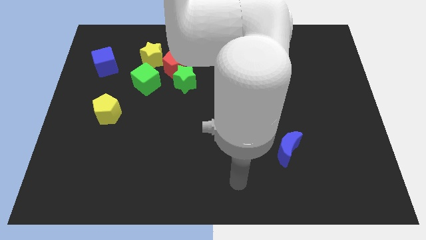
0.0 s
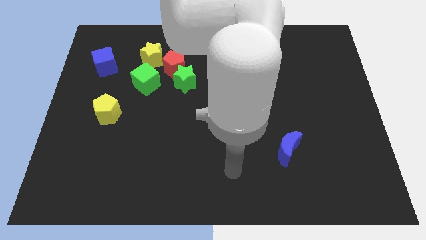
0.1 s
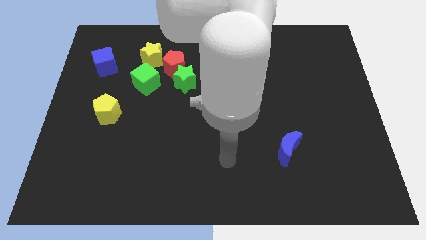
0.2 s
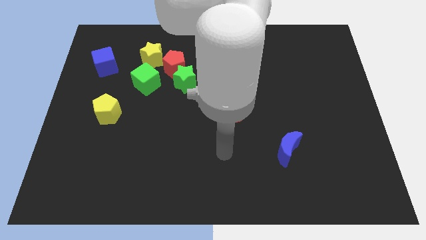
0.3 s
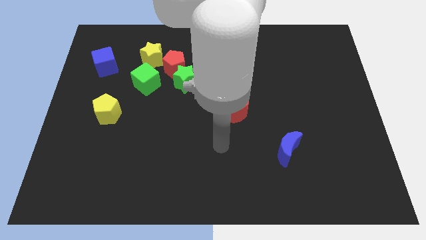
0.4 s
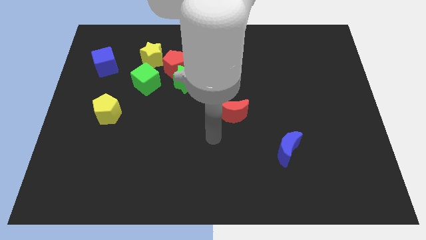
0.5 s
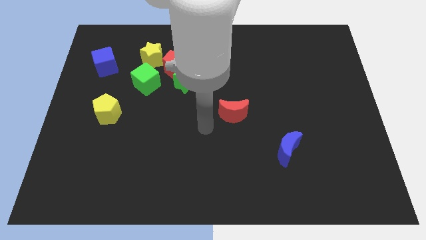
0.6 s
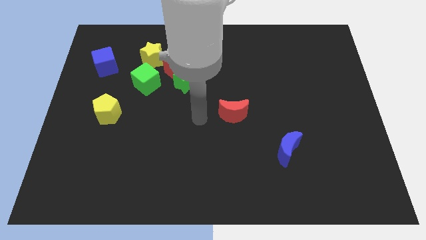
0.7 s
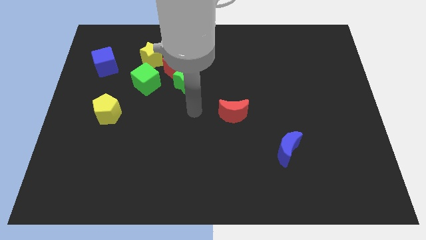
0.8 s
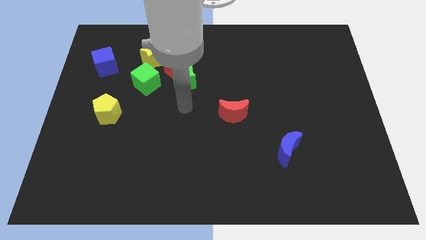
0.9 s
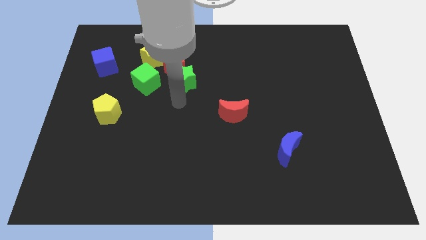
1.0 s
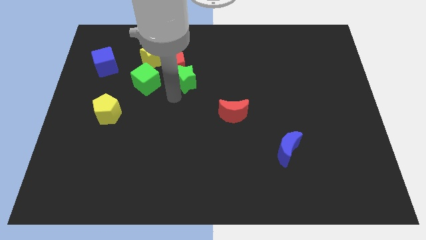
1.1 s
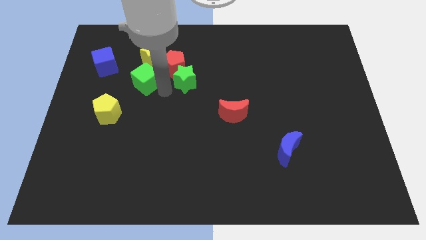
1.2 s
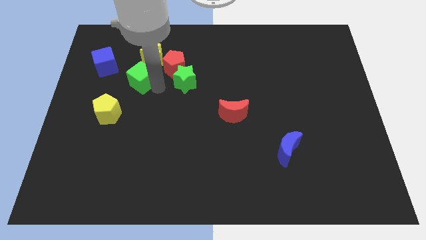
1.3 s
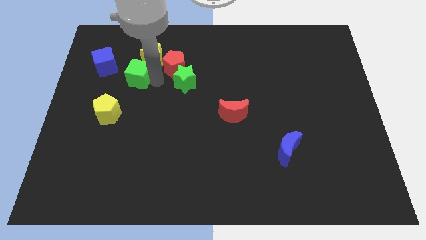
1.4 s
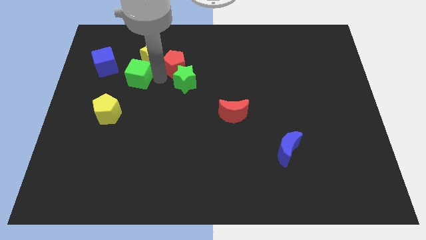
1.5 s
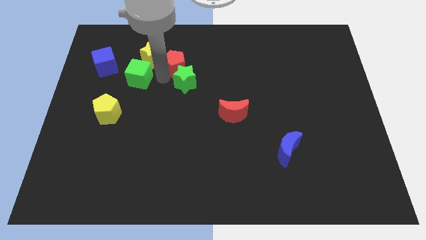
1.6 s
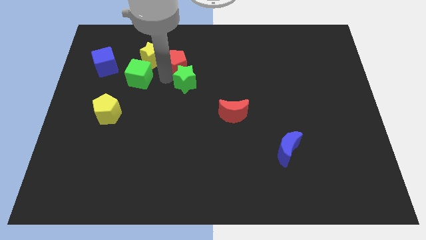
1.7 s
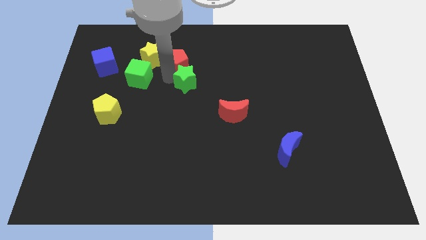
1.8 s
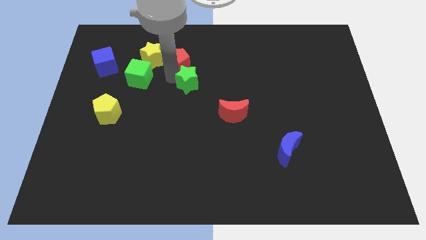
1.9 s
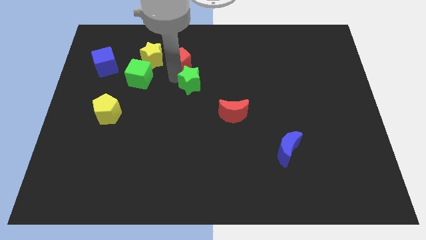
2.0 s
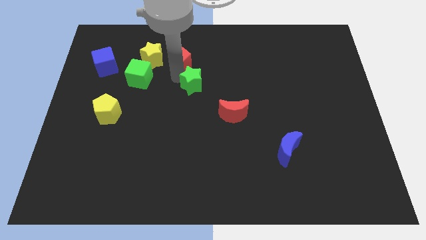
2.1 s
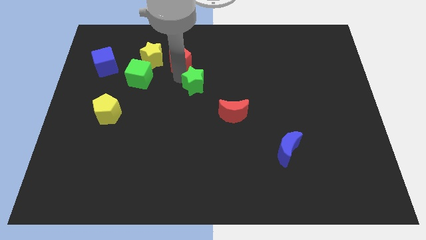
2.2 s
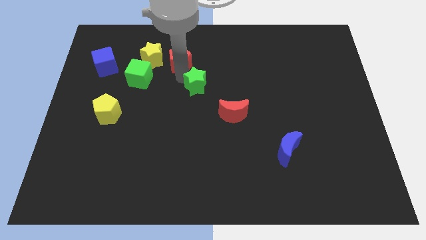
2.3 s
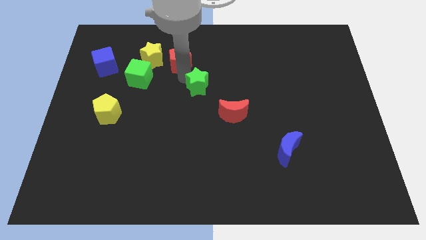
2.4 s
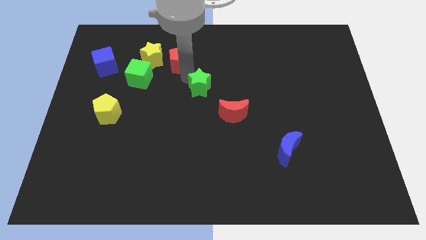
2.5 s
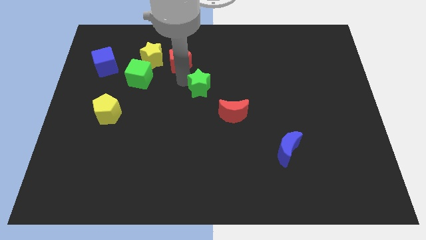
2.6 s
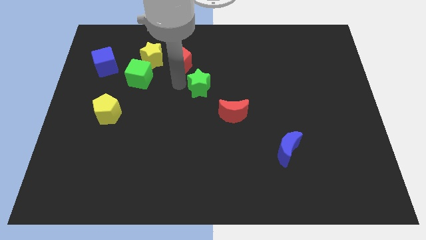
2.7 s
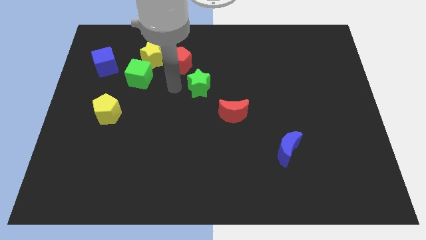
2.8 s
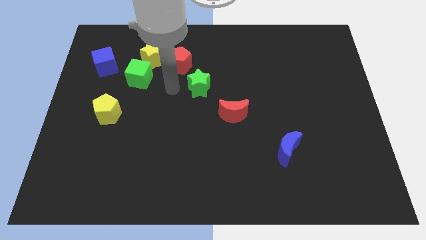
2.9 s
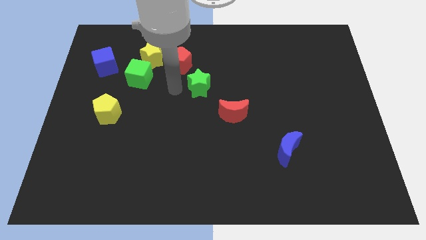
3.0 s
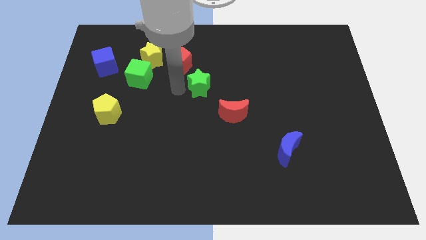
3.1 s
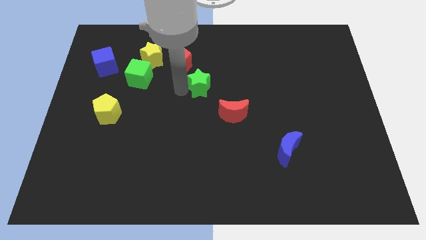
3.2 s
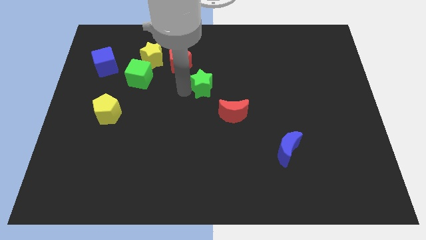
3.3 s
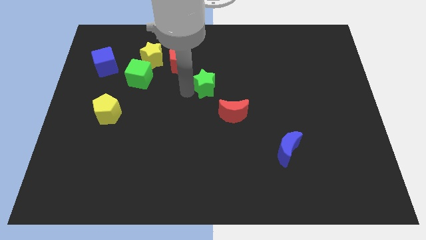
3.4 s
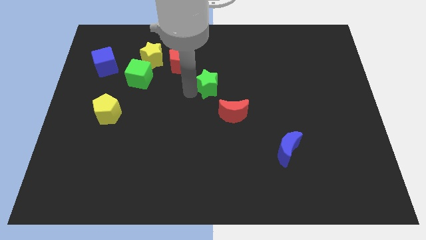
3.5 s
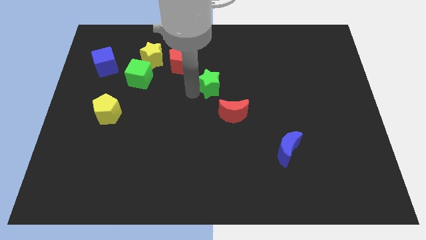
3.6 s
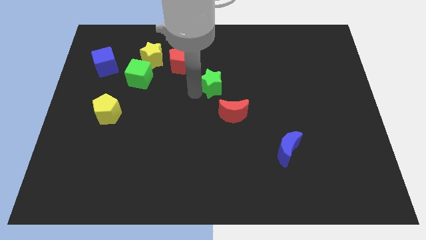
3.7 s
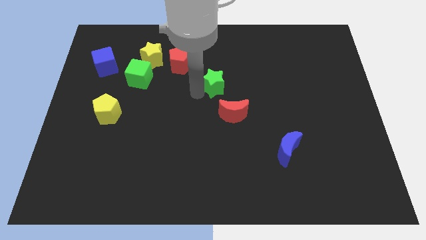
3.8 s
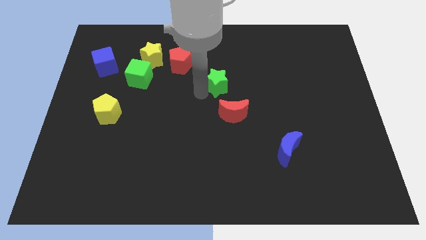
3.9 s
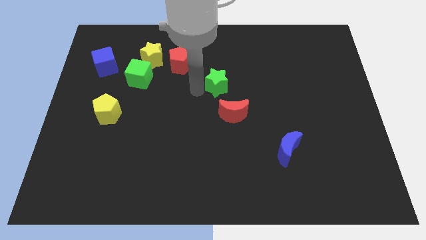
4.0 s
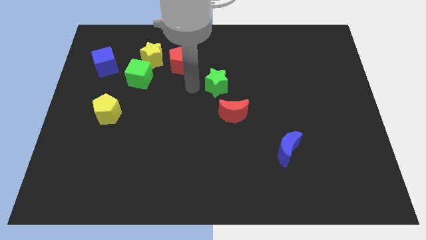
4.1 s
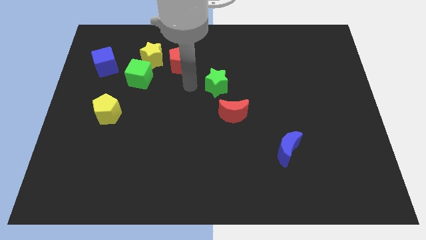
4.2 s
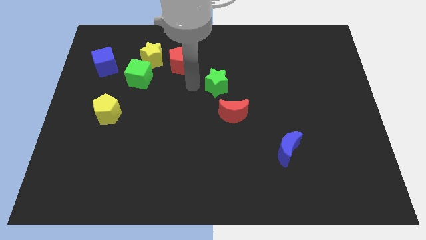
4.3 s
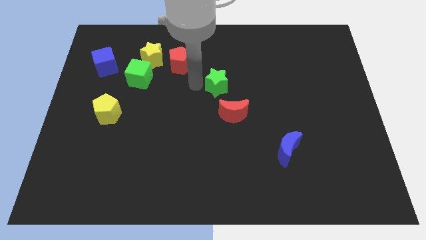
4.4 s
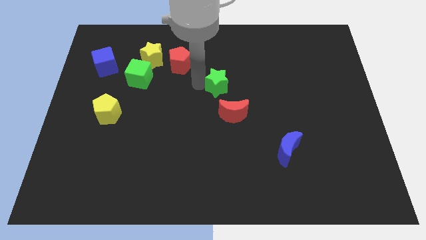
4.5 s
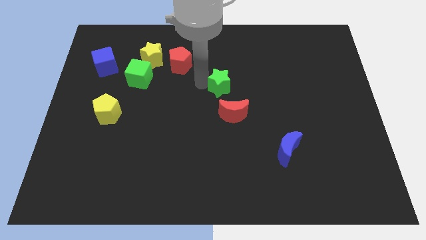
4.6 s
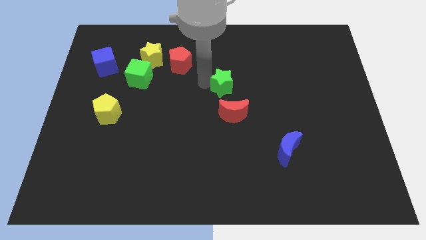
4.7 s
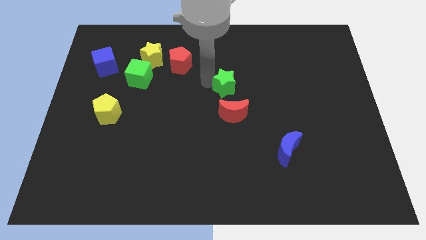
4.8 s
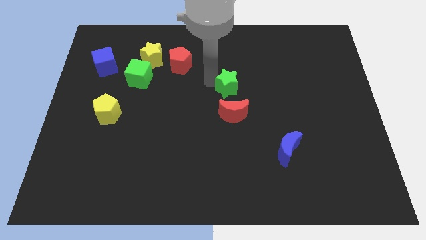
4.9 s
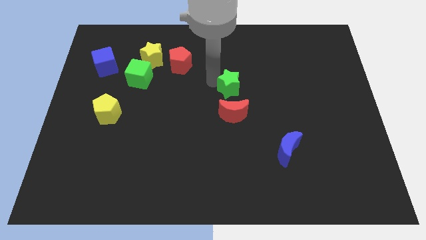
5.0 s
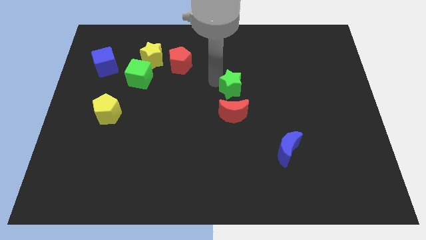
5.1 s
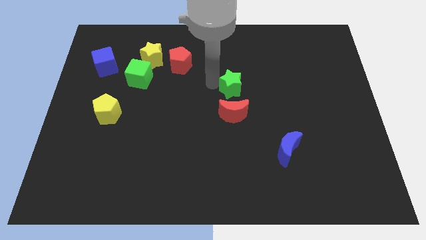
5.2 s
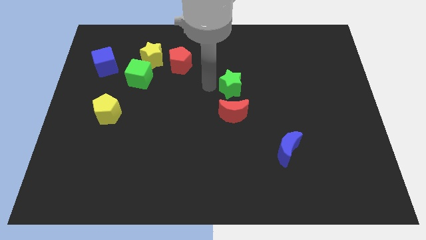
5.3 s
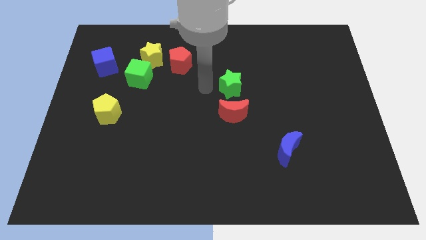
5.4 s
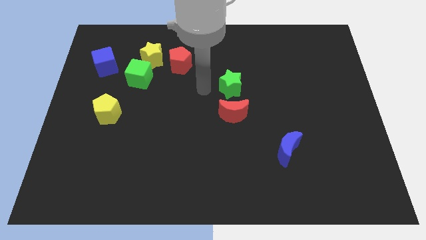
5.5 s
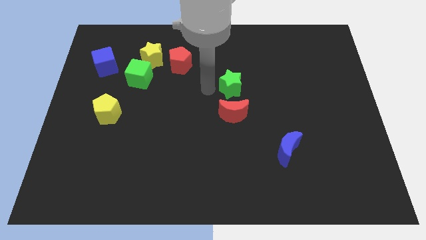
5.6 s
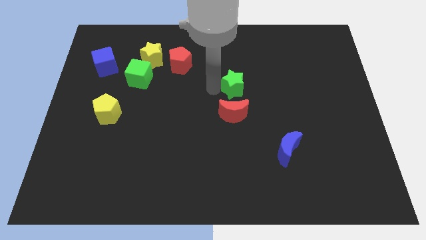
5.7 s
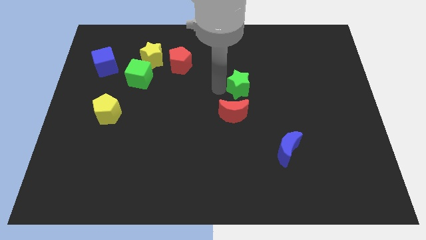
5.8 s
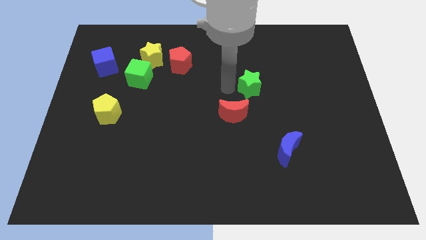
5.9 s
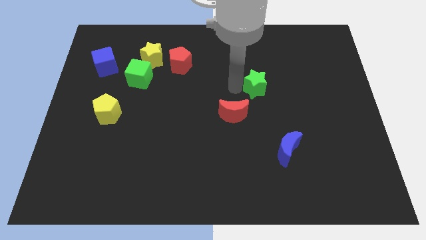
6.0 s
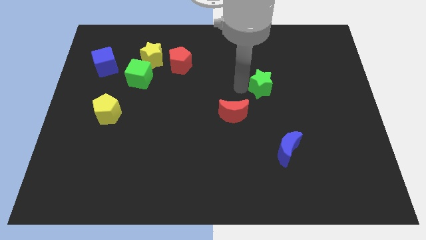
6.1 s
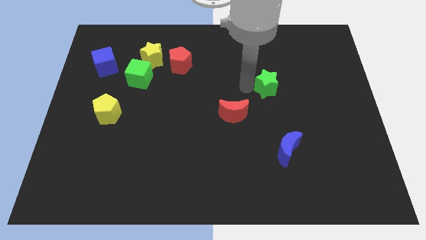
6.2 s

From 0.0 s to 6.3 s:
push the green star right

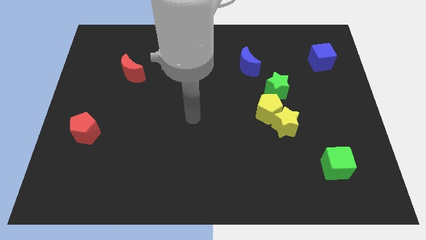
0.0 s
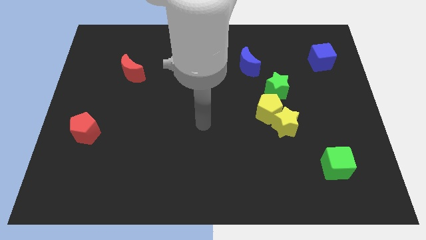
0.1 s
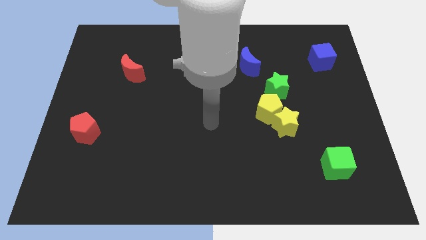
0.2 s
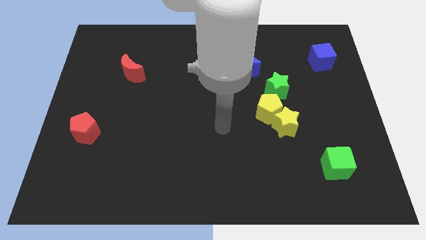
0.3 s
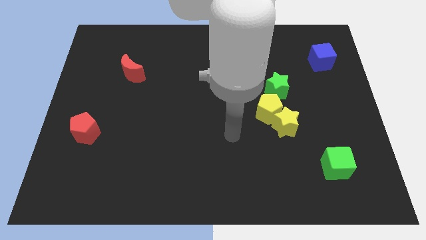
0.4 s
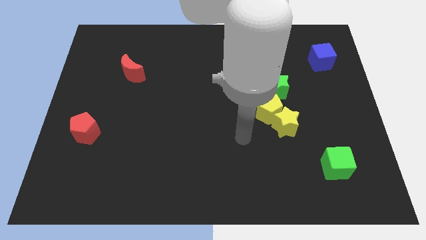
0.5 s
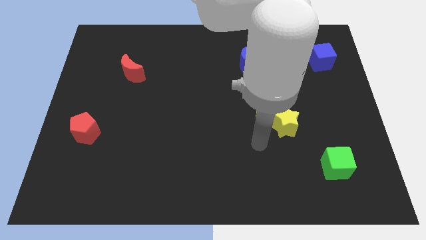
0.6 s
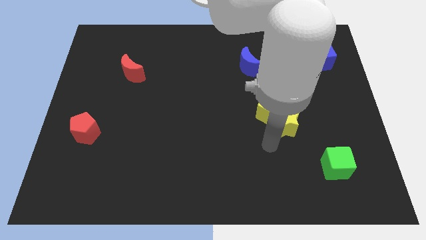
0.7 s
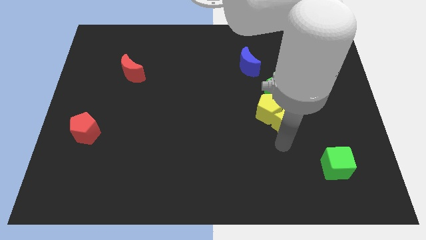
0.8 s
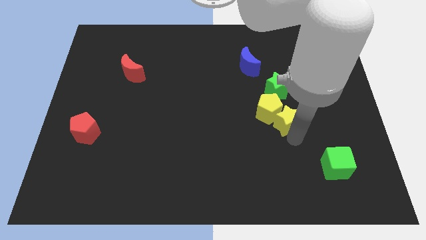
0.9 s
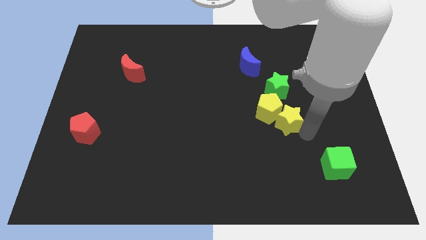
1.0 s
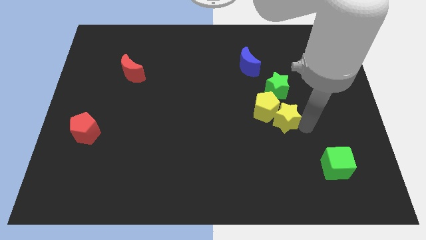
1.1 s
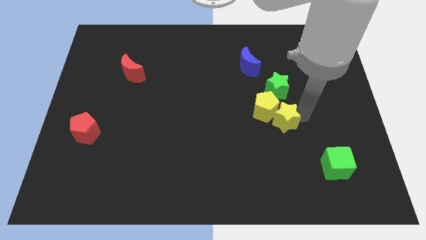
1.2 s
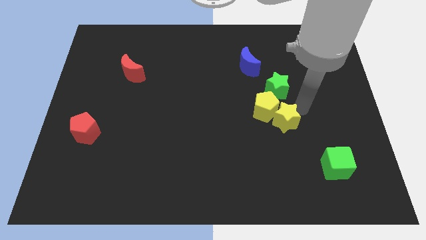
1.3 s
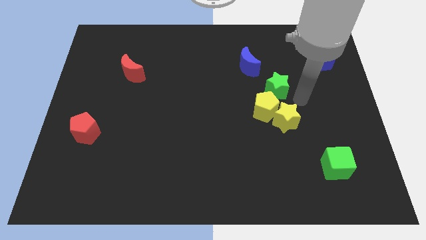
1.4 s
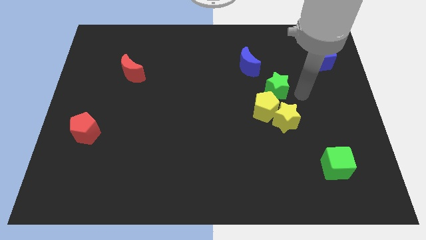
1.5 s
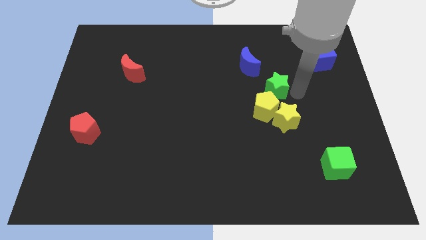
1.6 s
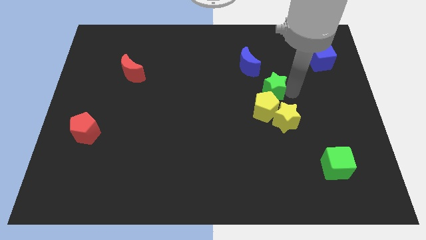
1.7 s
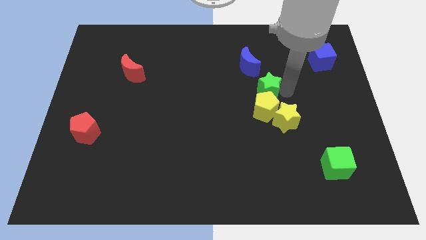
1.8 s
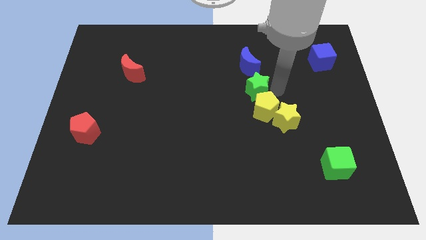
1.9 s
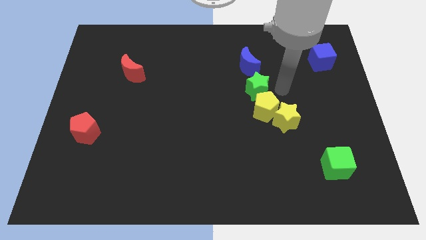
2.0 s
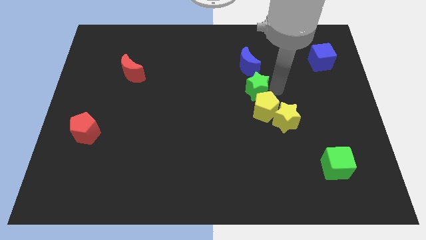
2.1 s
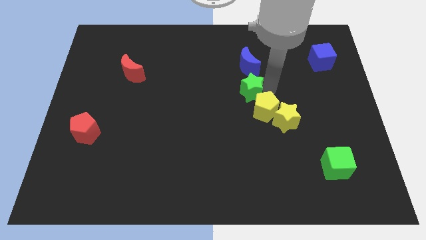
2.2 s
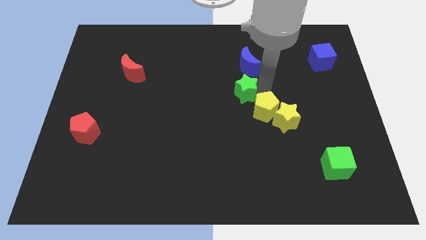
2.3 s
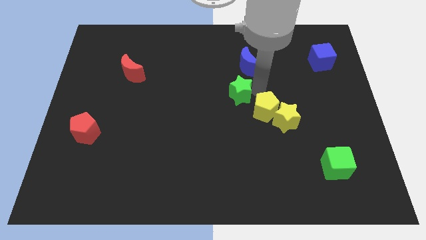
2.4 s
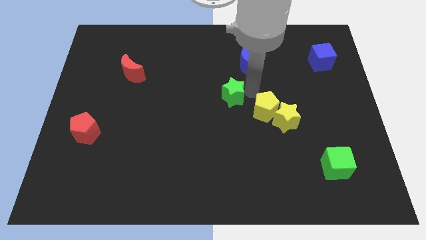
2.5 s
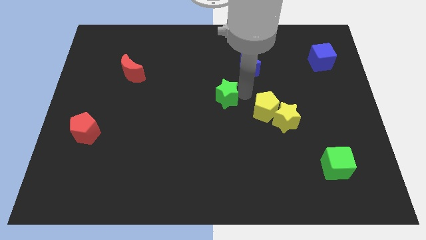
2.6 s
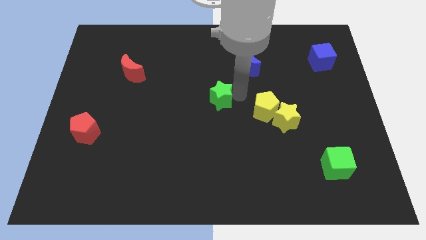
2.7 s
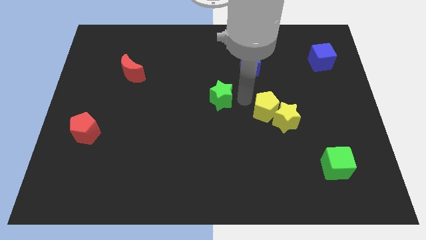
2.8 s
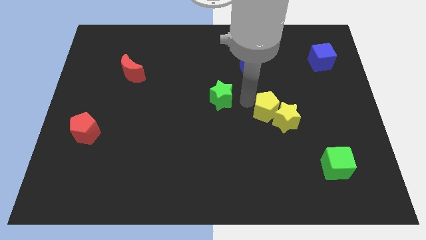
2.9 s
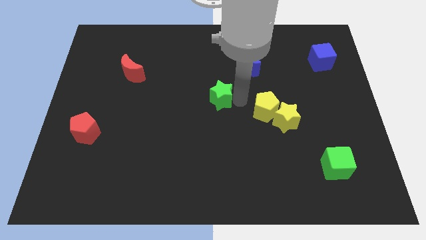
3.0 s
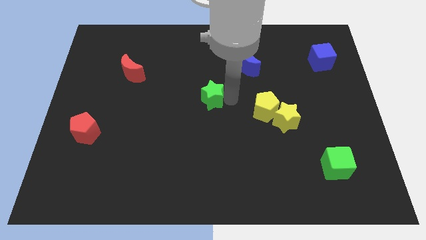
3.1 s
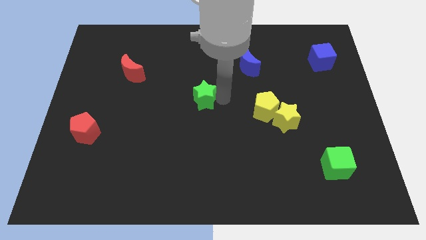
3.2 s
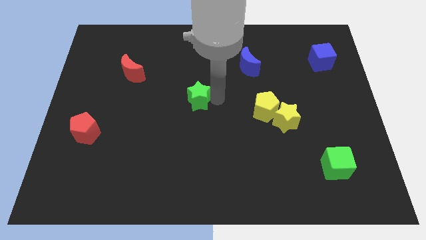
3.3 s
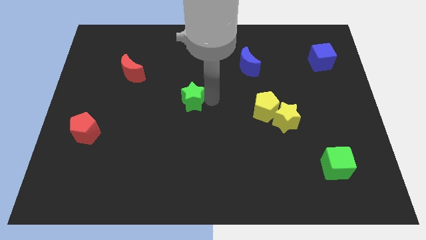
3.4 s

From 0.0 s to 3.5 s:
move the green star left
